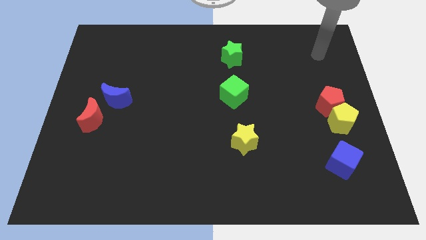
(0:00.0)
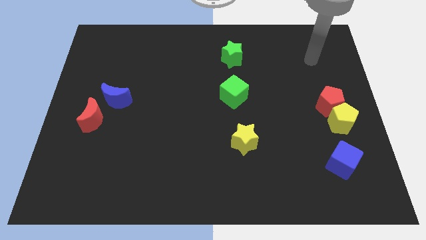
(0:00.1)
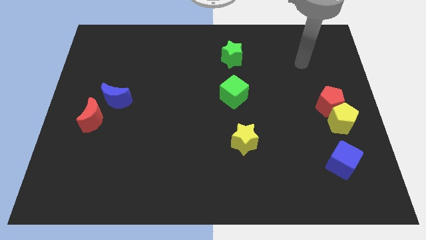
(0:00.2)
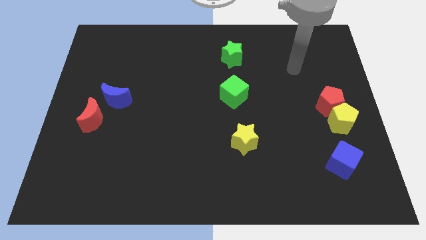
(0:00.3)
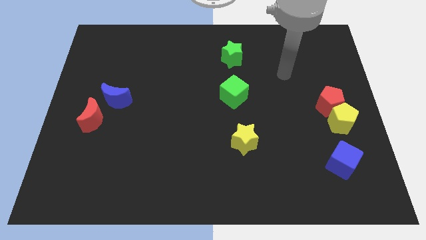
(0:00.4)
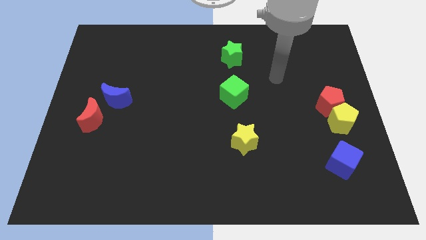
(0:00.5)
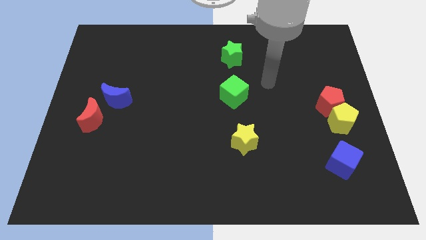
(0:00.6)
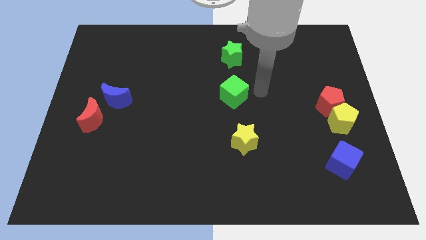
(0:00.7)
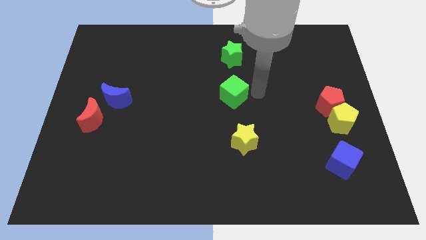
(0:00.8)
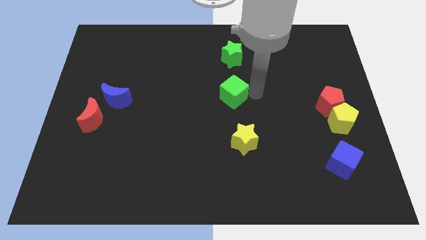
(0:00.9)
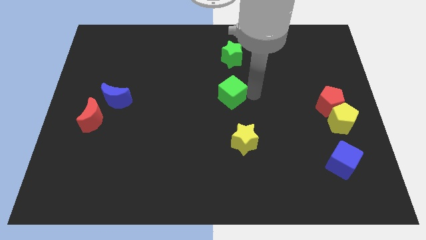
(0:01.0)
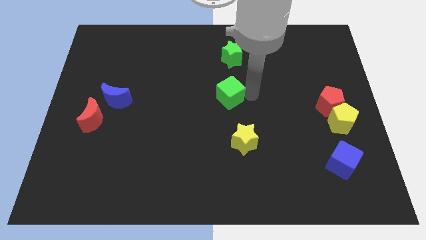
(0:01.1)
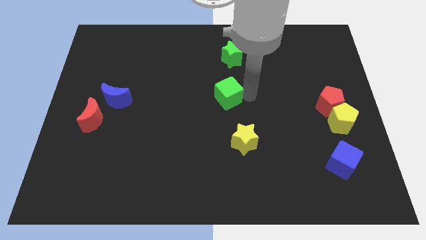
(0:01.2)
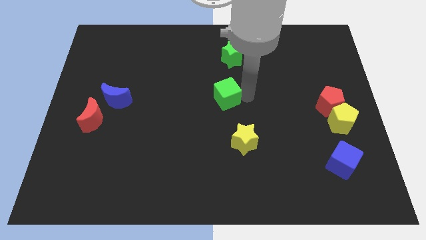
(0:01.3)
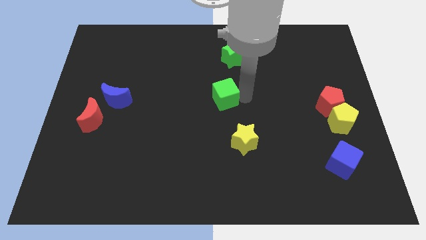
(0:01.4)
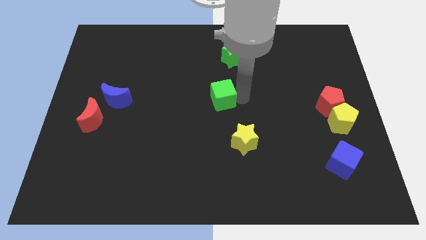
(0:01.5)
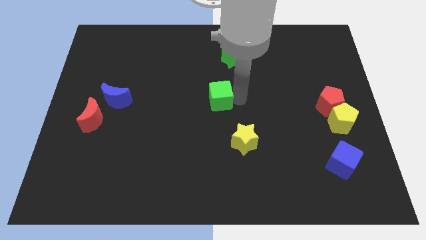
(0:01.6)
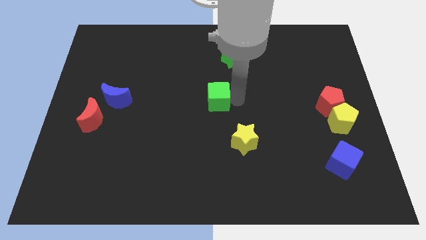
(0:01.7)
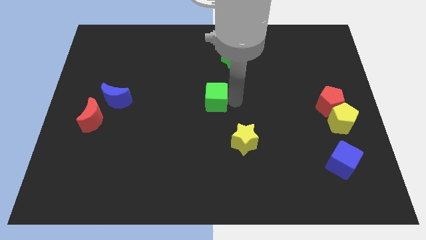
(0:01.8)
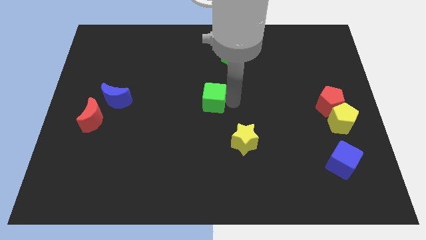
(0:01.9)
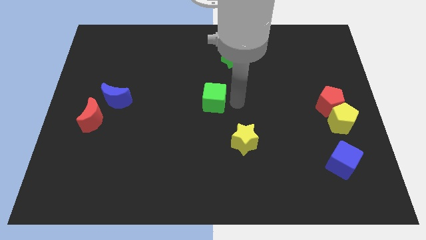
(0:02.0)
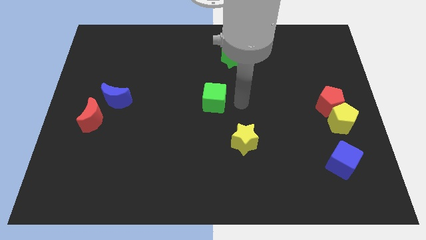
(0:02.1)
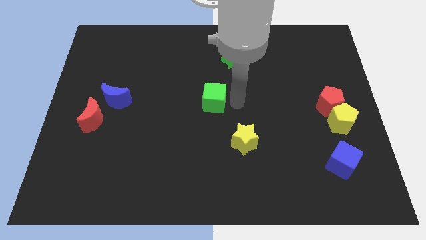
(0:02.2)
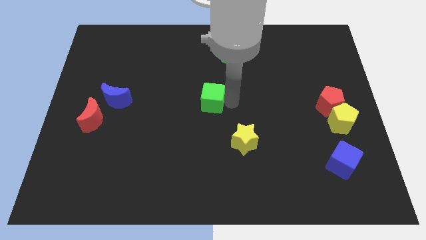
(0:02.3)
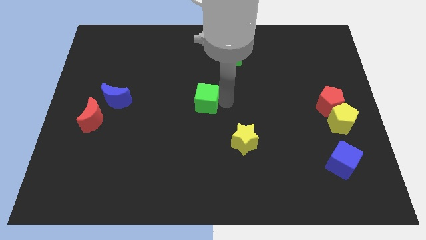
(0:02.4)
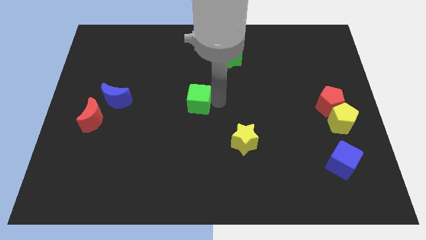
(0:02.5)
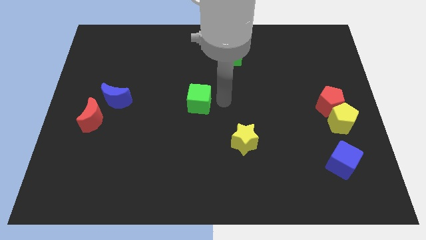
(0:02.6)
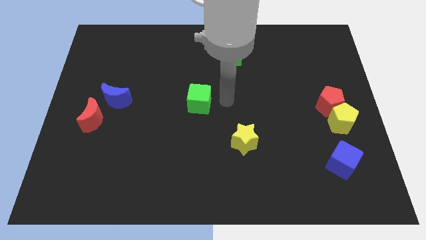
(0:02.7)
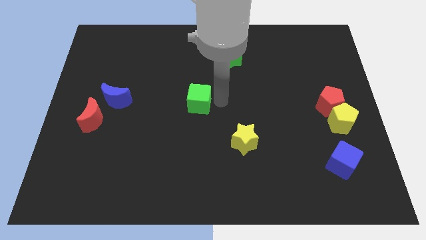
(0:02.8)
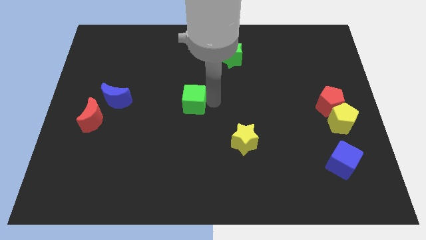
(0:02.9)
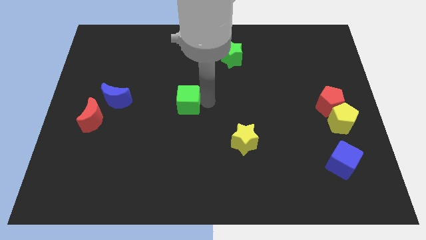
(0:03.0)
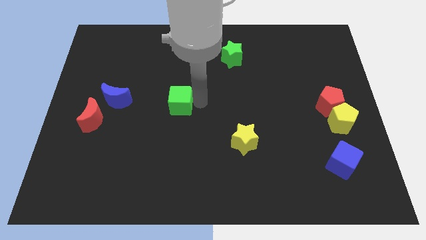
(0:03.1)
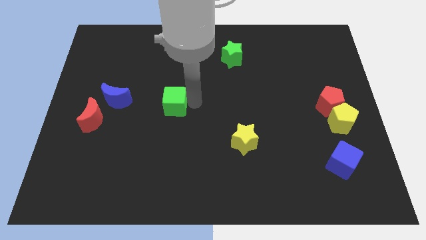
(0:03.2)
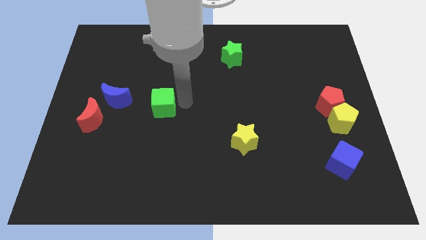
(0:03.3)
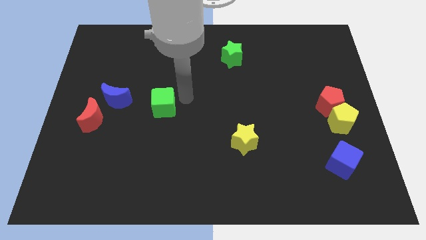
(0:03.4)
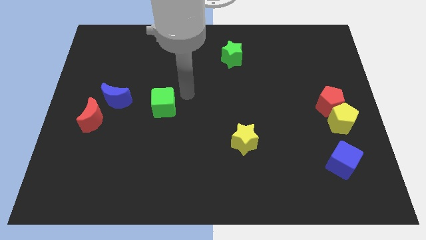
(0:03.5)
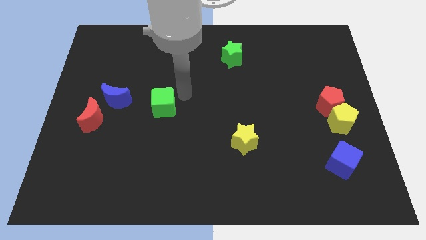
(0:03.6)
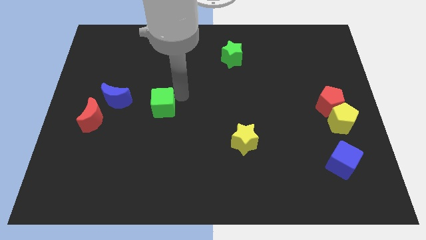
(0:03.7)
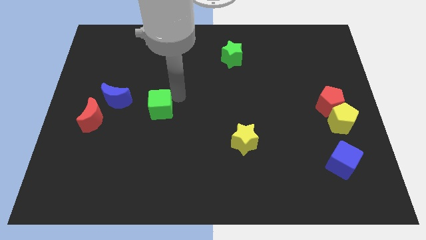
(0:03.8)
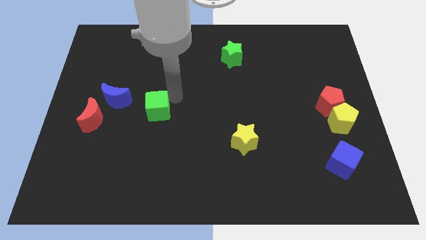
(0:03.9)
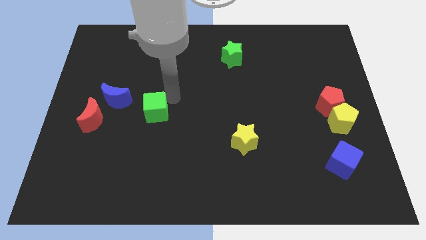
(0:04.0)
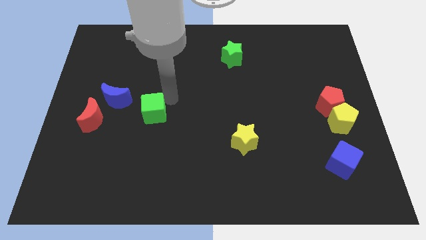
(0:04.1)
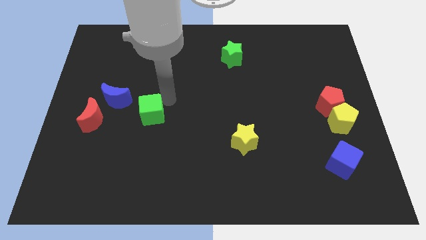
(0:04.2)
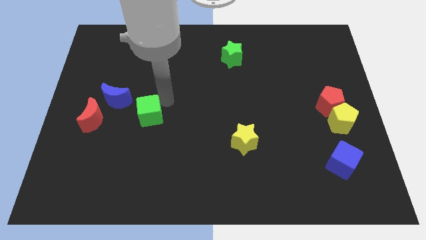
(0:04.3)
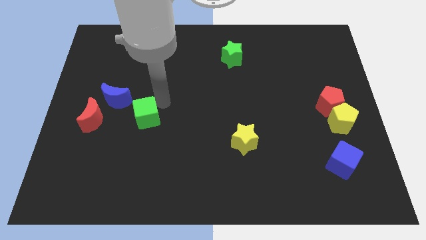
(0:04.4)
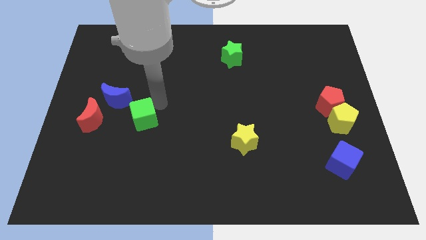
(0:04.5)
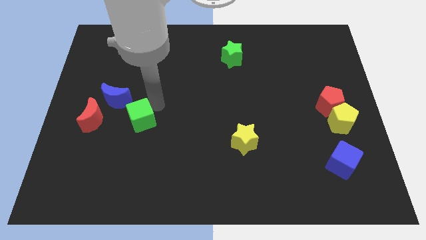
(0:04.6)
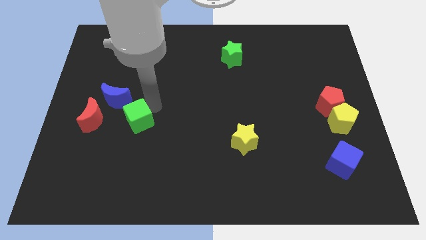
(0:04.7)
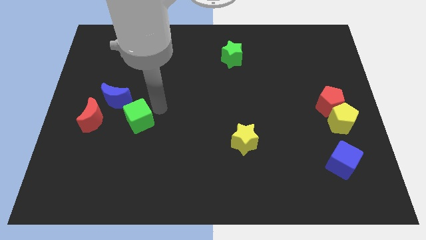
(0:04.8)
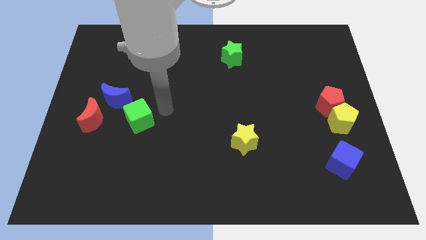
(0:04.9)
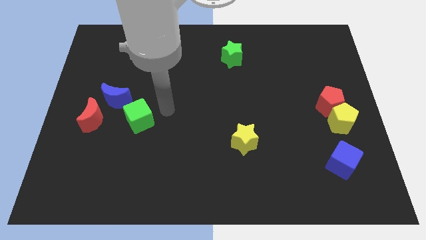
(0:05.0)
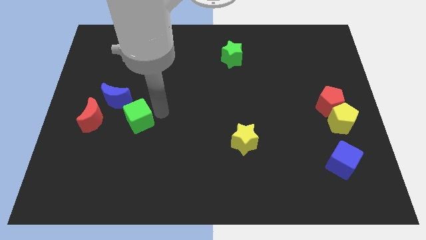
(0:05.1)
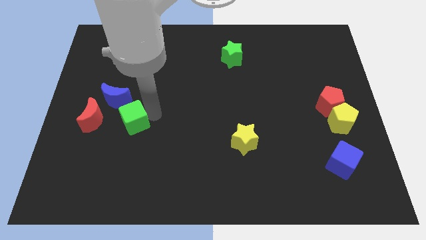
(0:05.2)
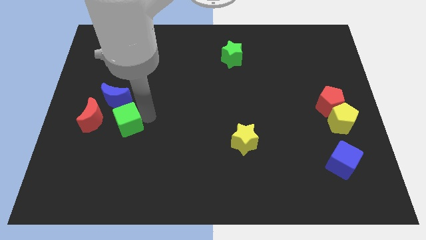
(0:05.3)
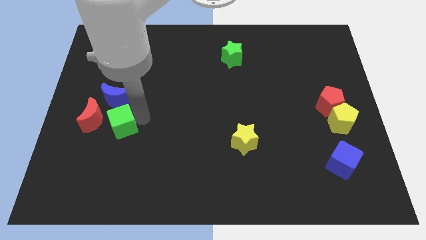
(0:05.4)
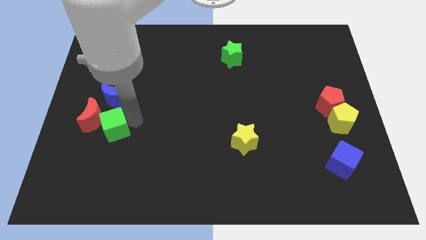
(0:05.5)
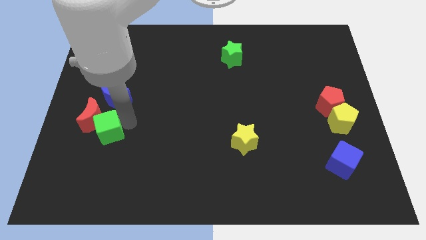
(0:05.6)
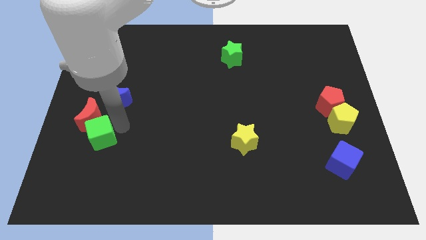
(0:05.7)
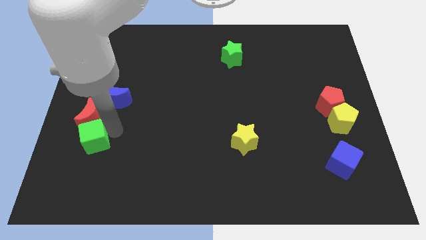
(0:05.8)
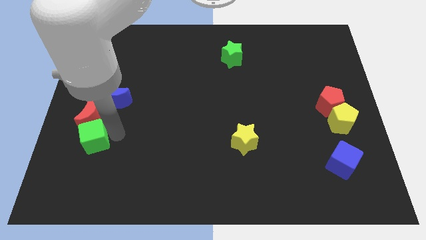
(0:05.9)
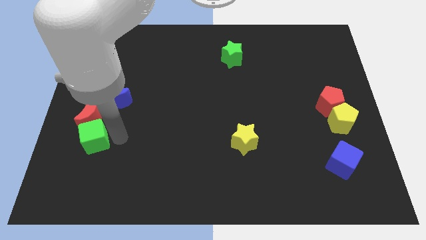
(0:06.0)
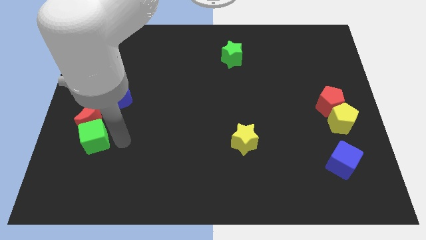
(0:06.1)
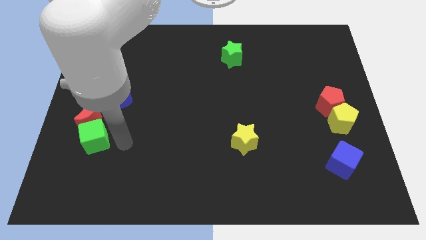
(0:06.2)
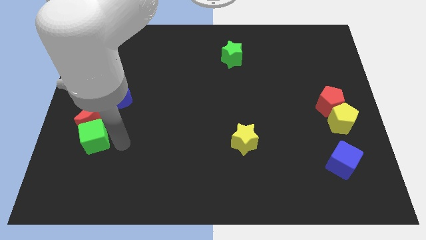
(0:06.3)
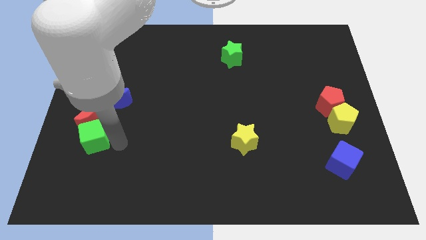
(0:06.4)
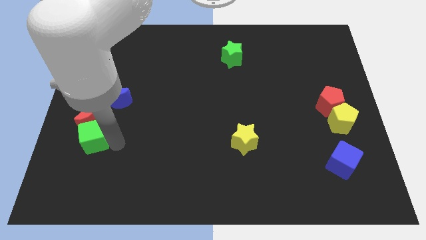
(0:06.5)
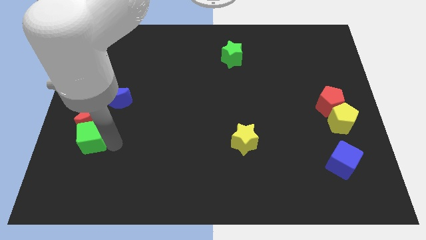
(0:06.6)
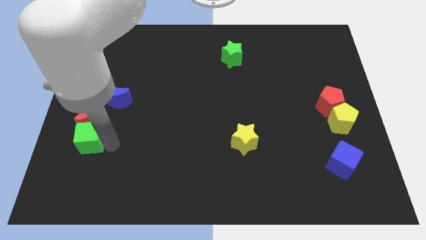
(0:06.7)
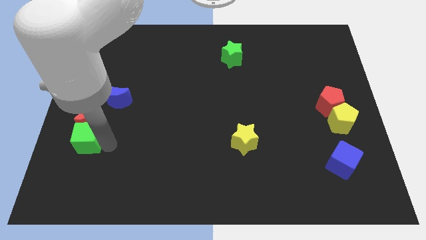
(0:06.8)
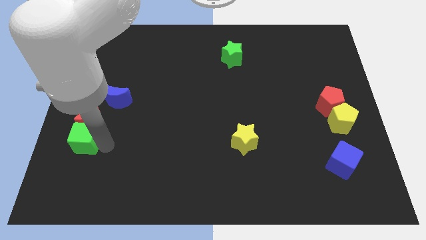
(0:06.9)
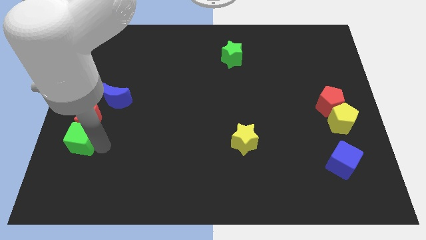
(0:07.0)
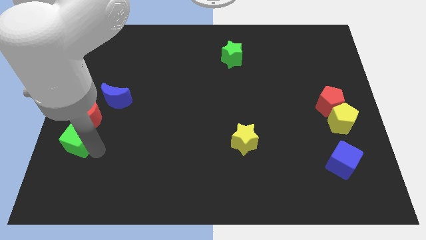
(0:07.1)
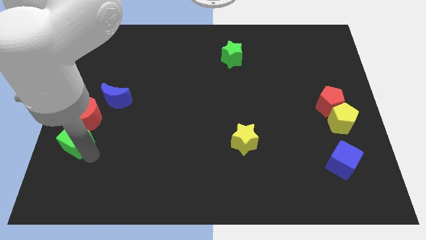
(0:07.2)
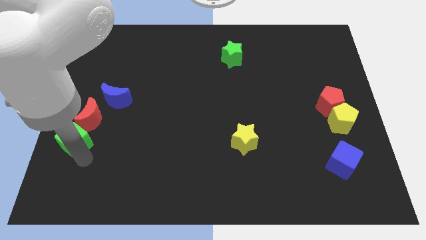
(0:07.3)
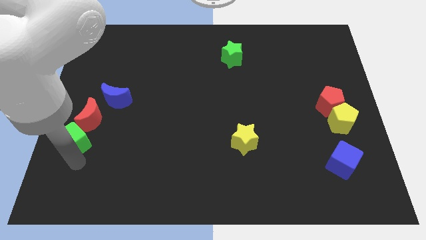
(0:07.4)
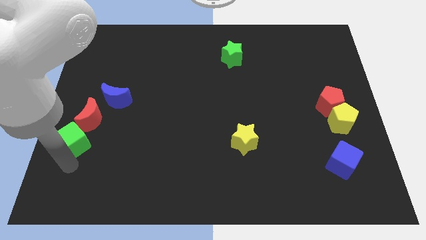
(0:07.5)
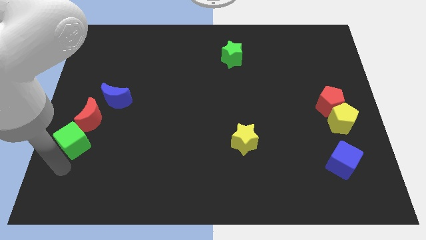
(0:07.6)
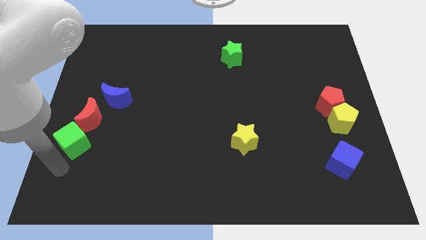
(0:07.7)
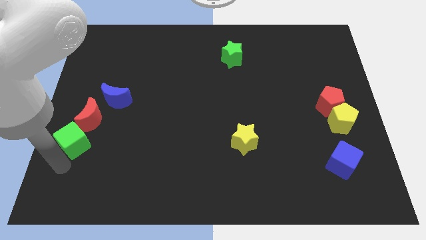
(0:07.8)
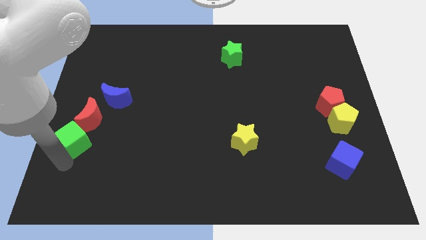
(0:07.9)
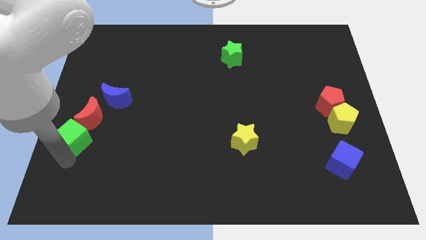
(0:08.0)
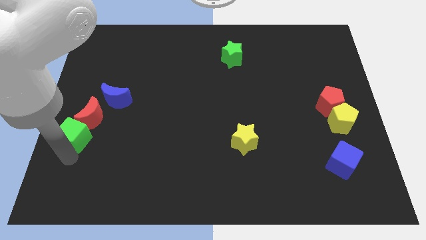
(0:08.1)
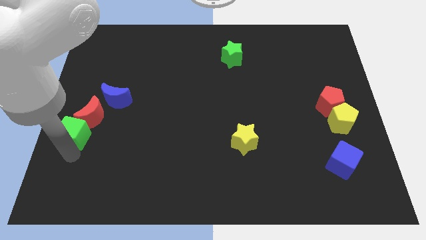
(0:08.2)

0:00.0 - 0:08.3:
slide the green cube to the bottom left of the blue moon
